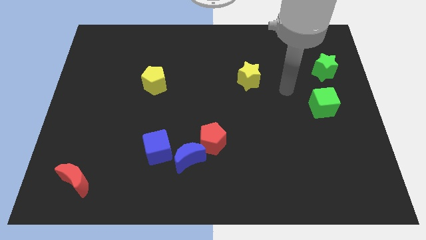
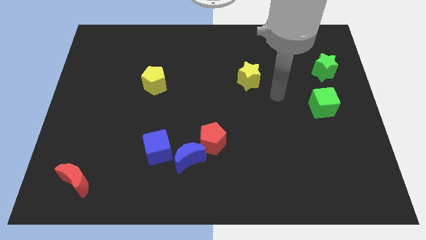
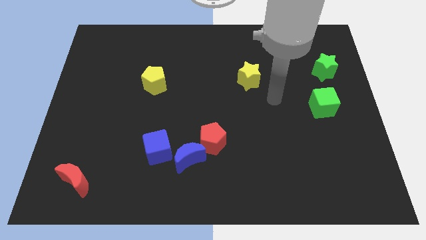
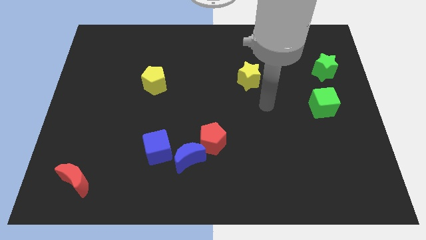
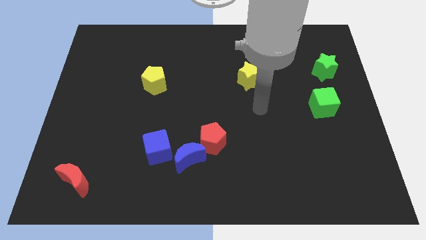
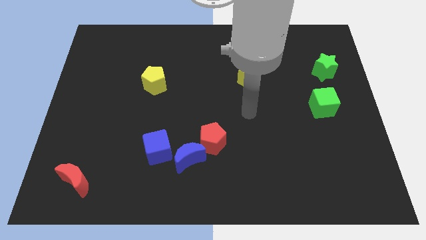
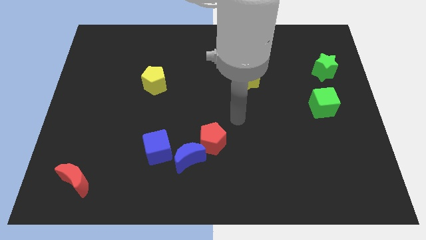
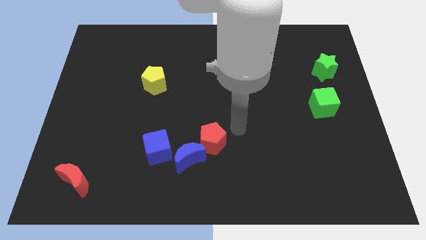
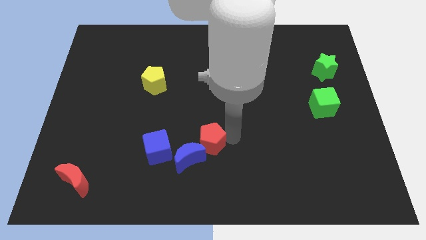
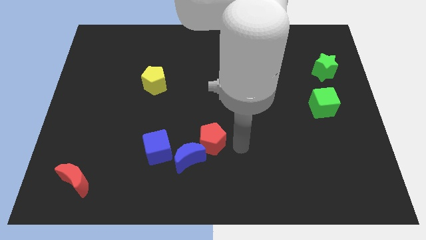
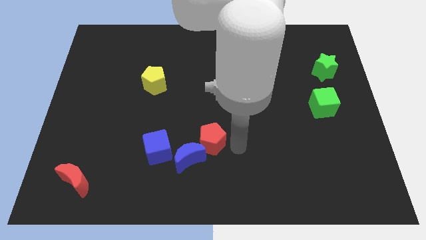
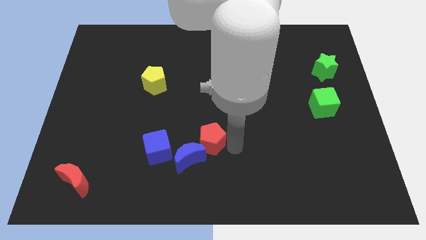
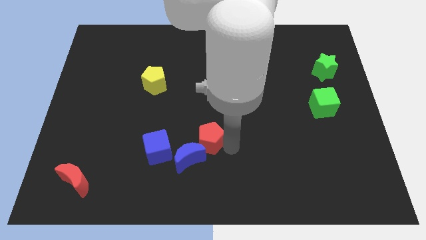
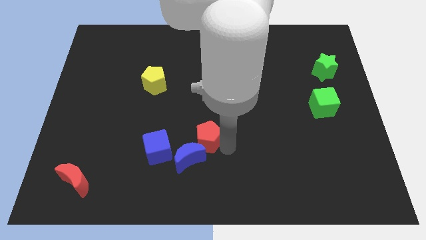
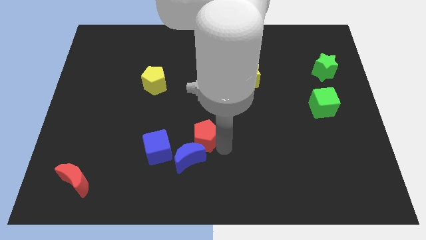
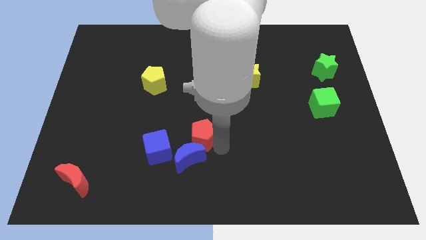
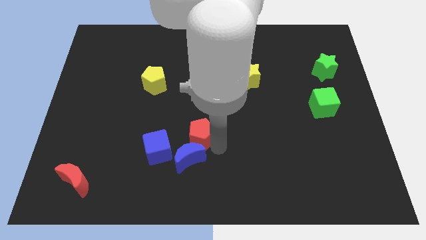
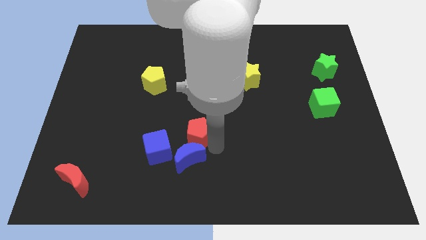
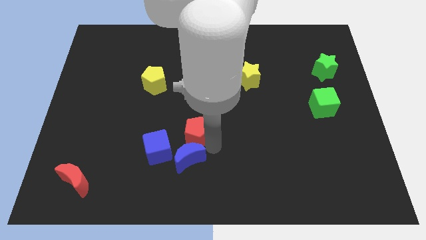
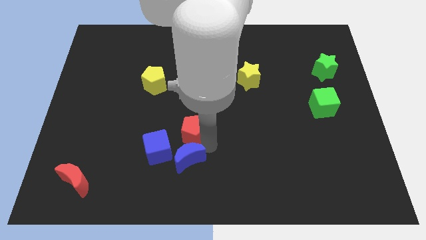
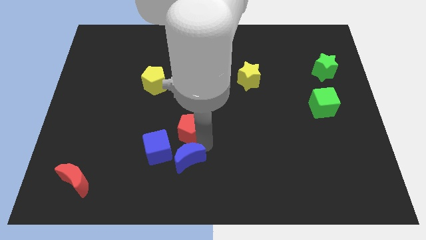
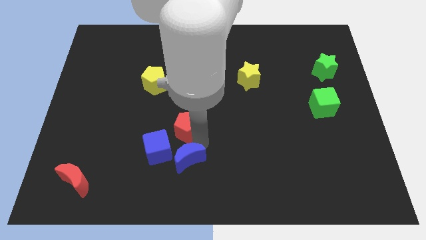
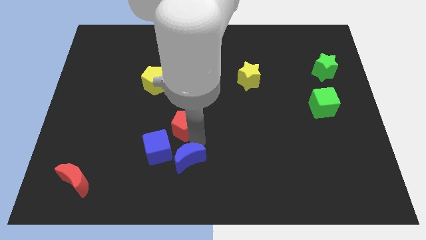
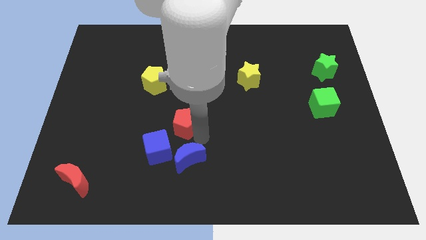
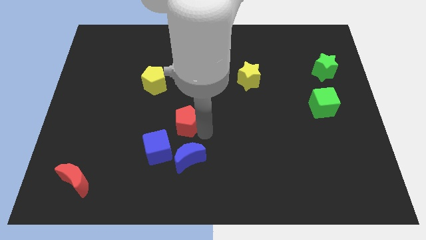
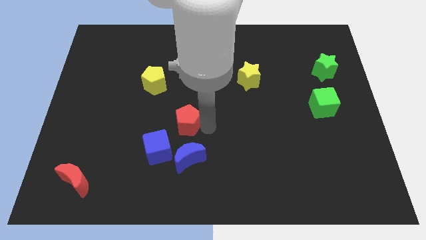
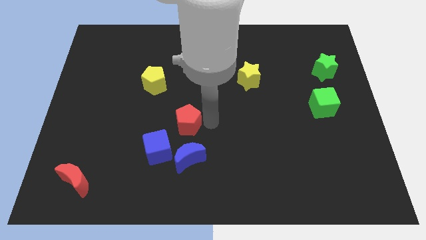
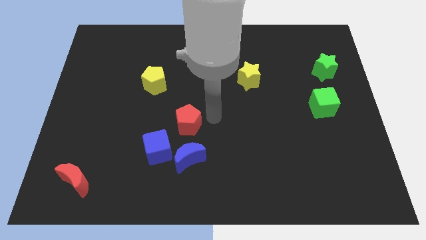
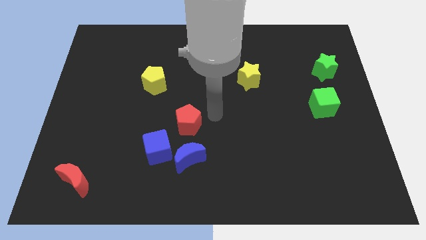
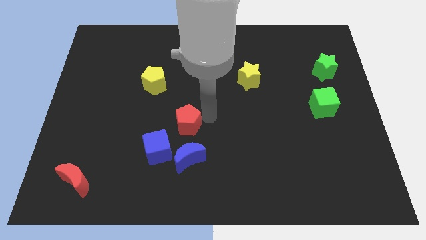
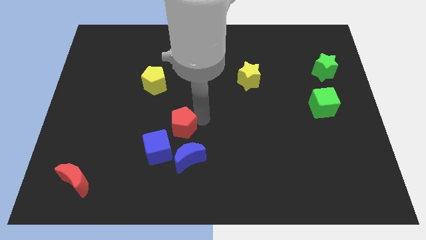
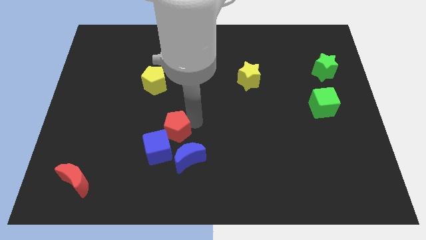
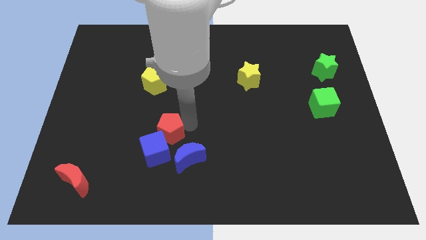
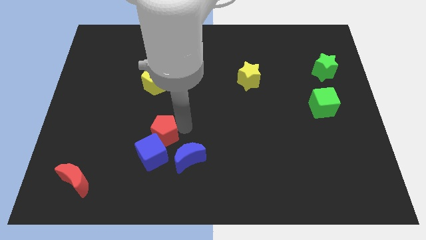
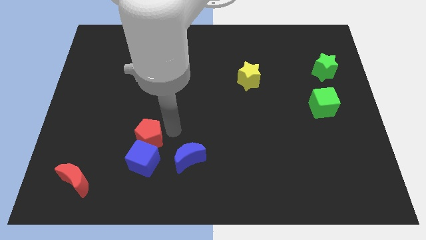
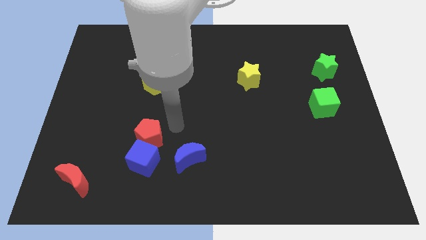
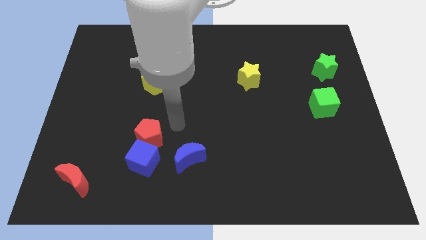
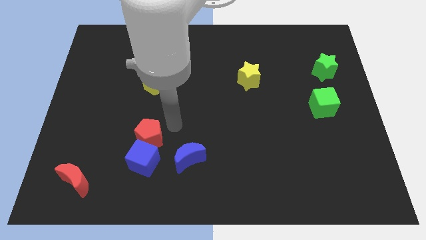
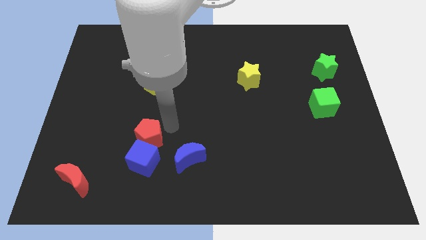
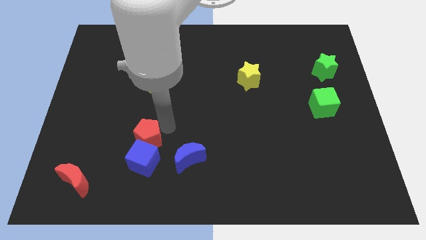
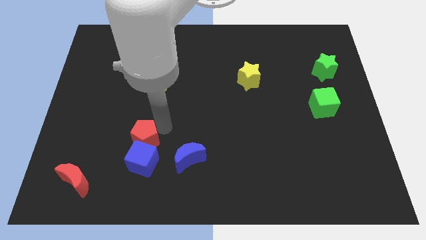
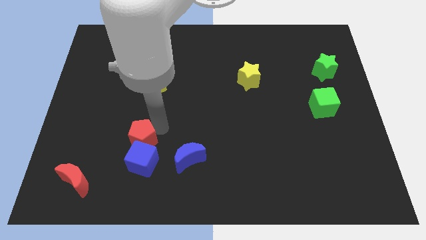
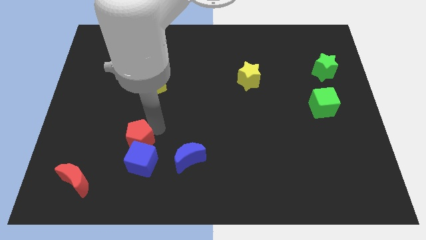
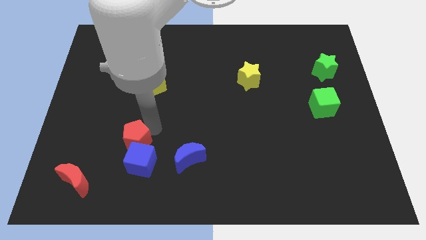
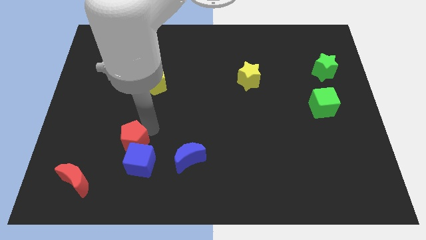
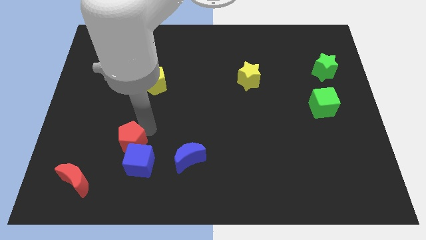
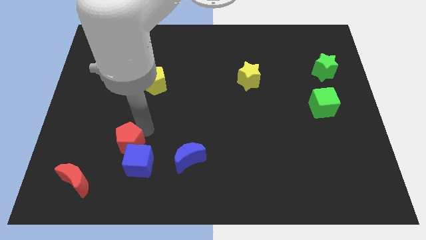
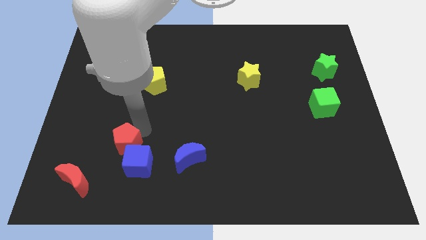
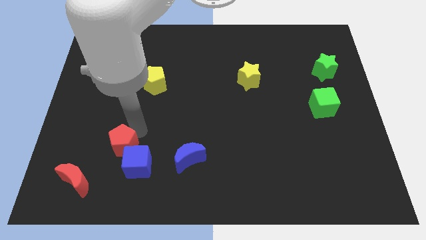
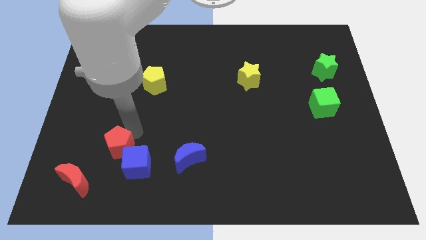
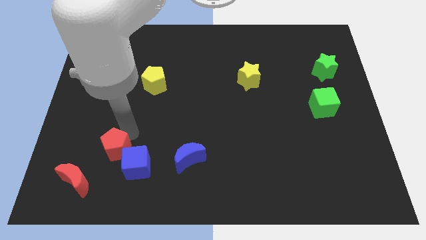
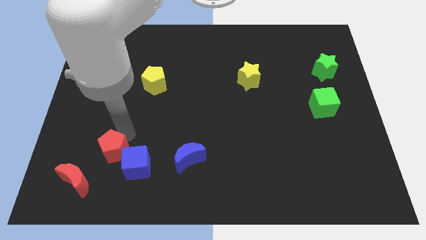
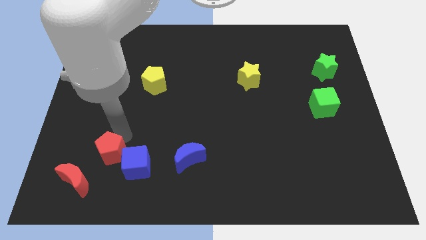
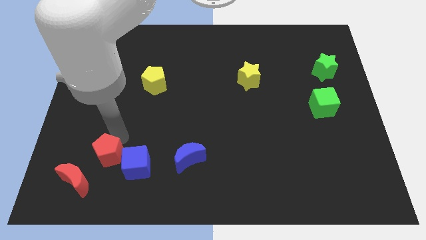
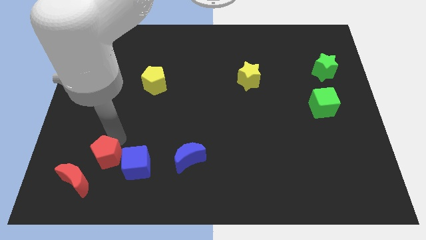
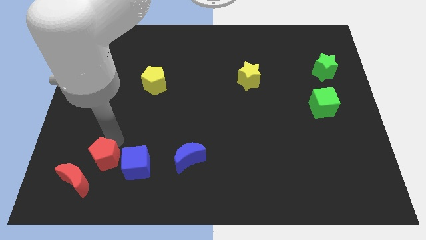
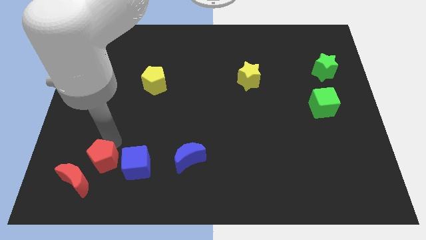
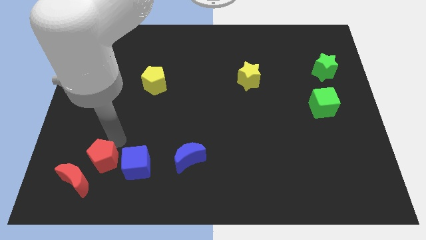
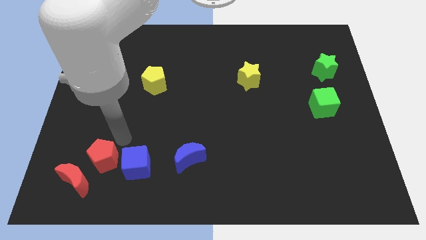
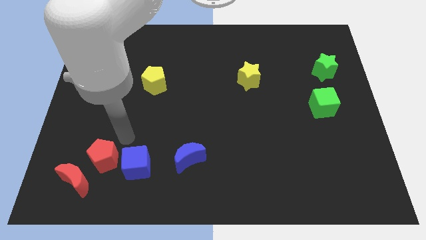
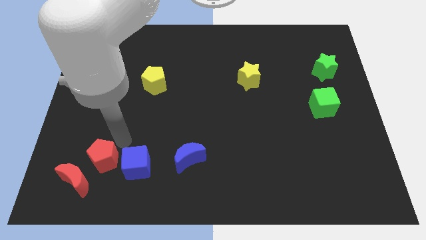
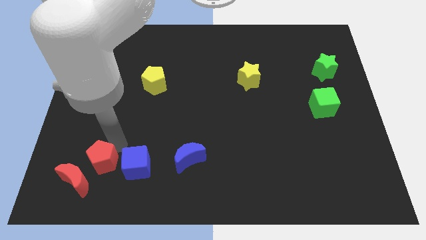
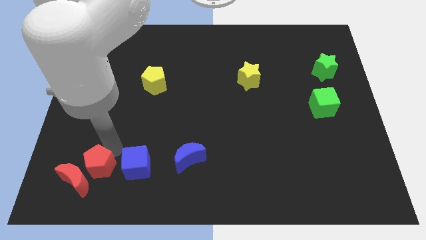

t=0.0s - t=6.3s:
slide the red pentagon close to the red moon
